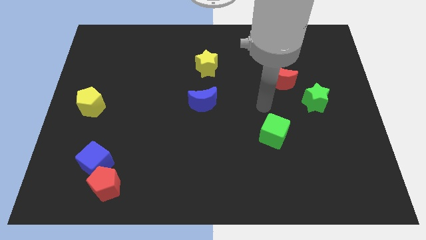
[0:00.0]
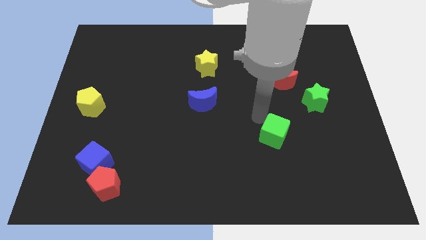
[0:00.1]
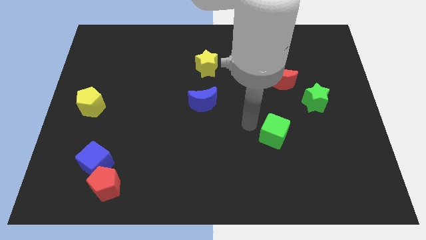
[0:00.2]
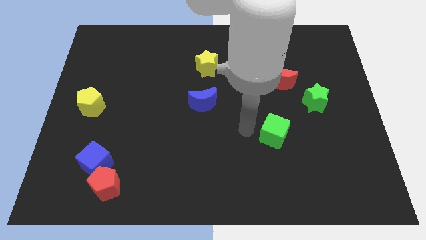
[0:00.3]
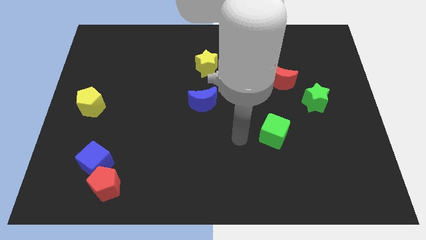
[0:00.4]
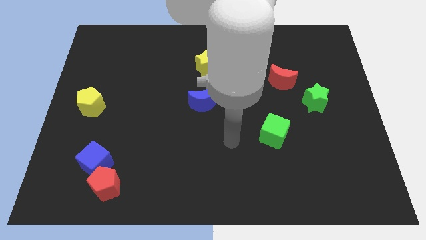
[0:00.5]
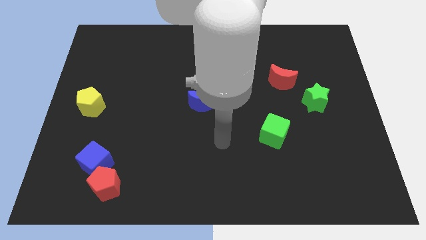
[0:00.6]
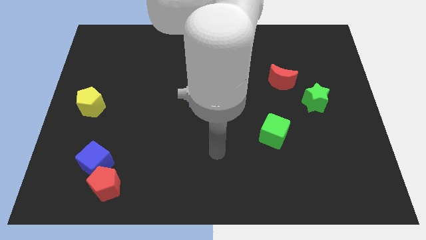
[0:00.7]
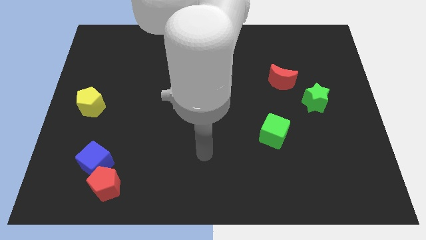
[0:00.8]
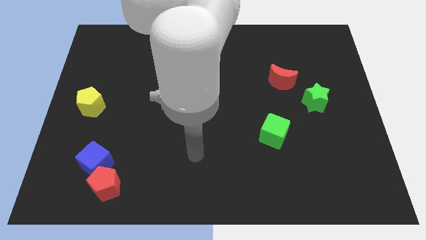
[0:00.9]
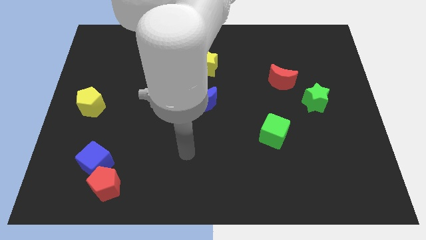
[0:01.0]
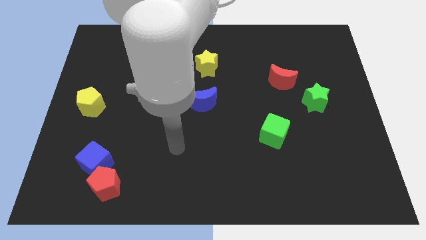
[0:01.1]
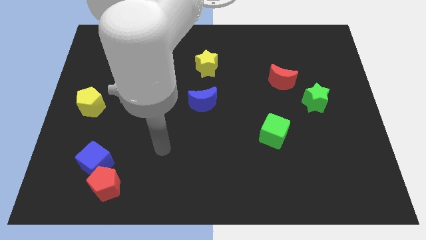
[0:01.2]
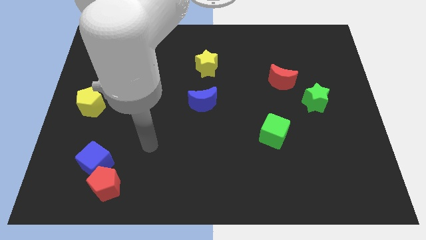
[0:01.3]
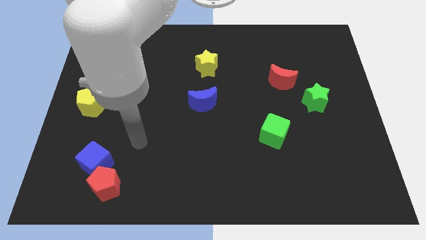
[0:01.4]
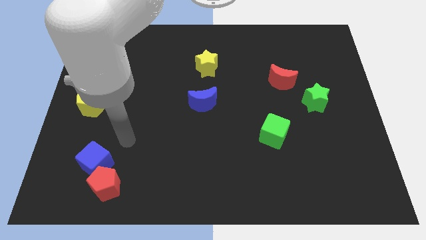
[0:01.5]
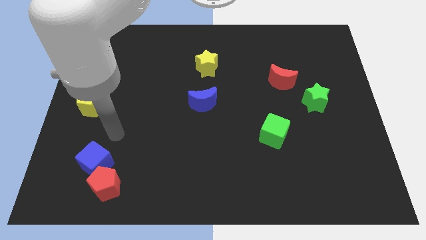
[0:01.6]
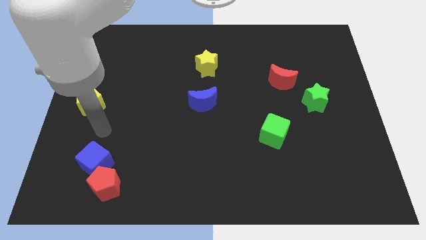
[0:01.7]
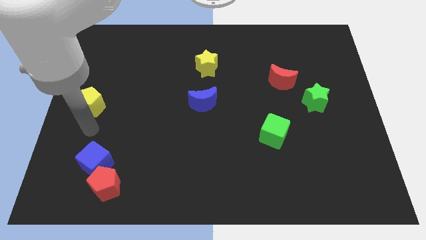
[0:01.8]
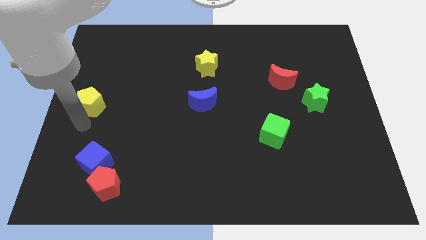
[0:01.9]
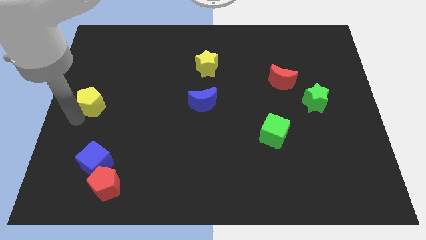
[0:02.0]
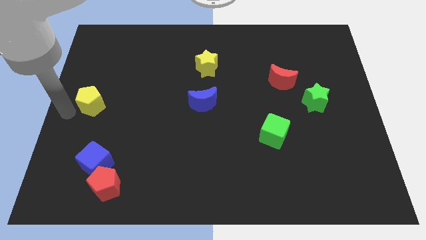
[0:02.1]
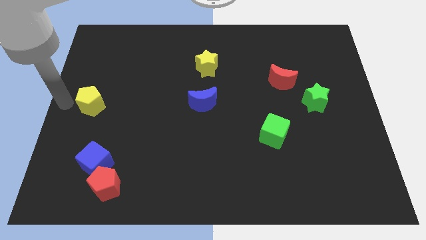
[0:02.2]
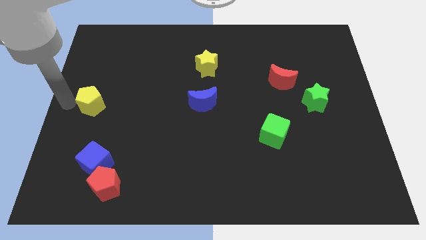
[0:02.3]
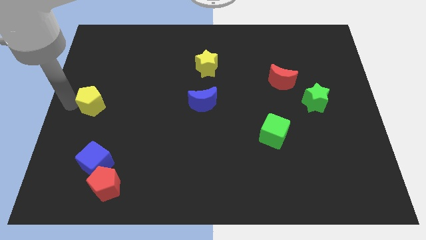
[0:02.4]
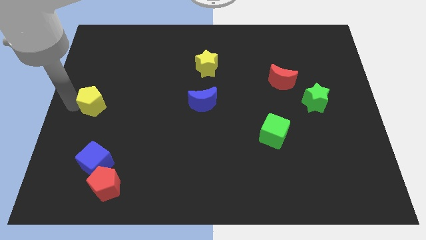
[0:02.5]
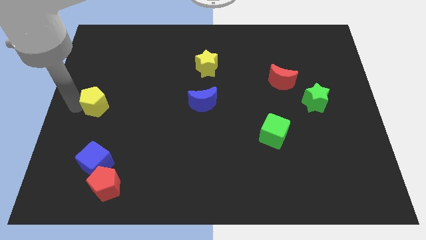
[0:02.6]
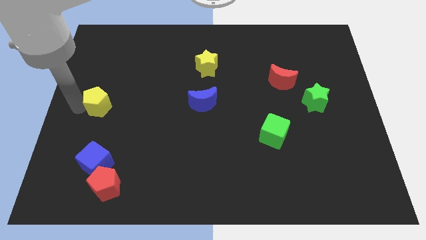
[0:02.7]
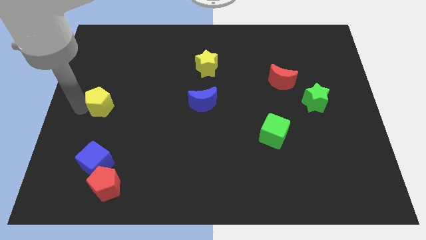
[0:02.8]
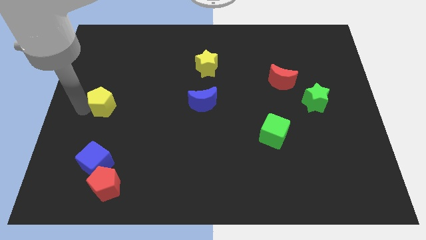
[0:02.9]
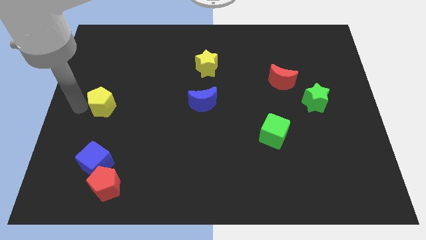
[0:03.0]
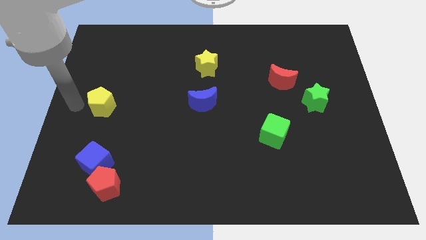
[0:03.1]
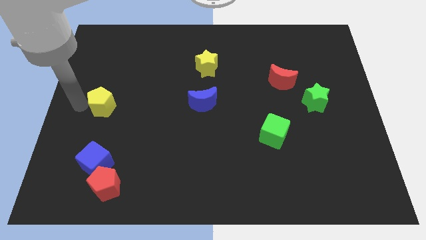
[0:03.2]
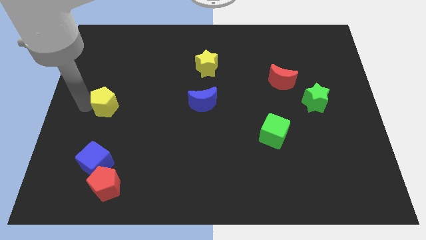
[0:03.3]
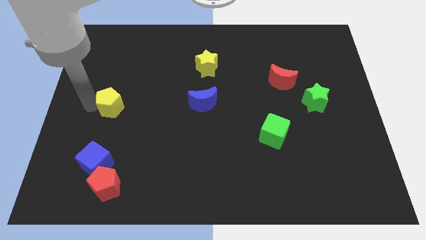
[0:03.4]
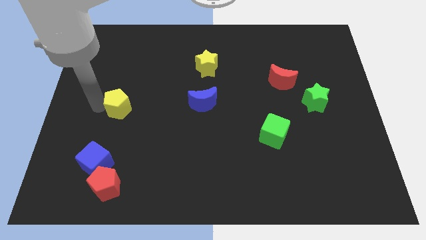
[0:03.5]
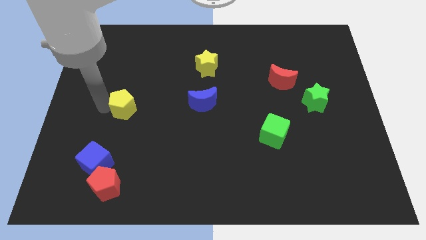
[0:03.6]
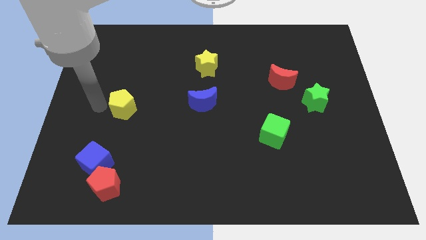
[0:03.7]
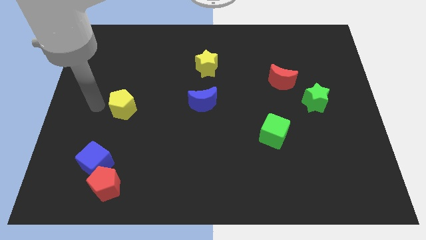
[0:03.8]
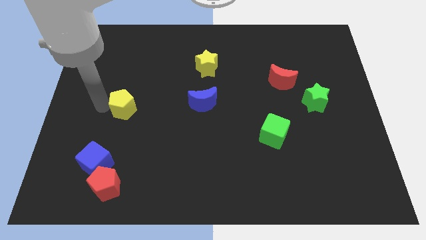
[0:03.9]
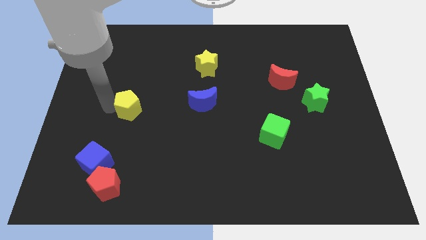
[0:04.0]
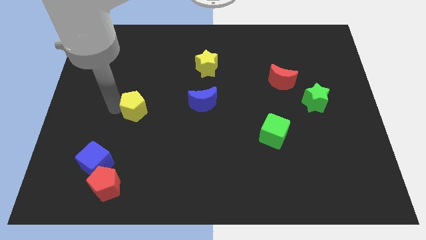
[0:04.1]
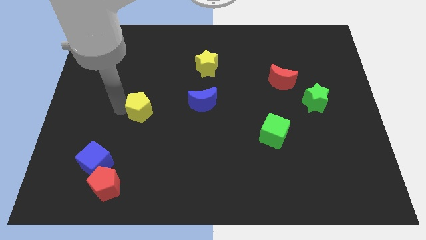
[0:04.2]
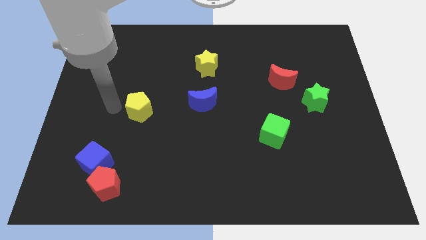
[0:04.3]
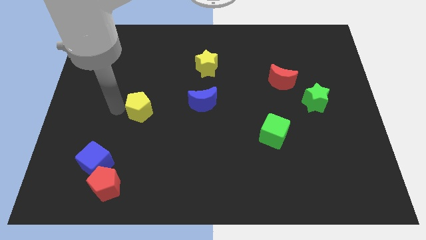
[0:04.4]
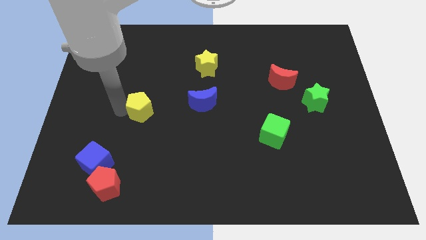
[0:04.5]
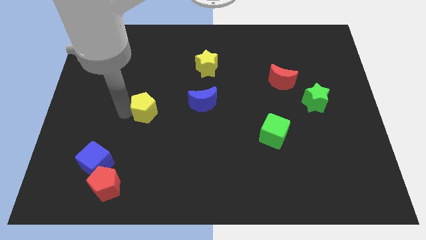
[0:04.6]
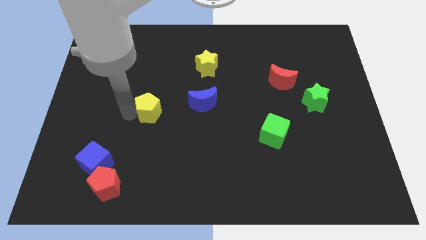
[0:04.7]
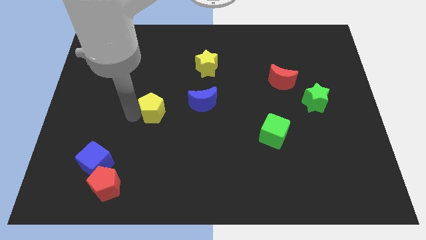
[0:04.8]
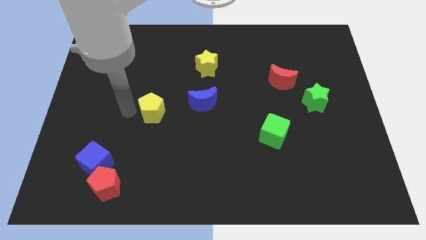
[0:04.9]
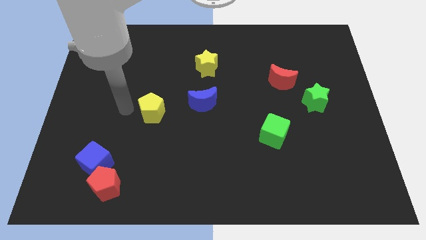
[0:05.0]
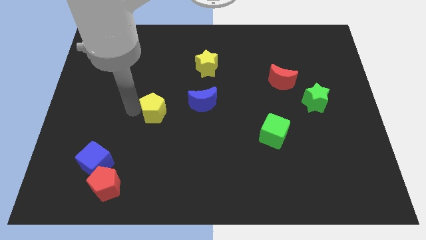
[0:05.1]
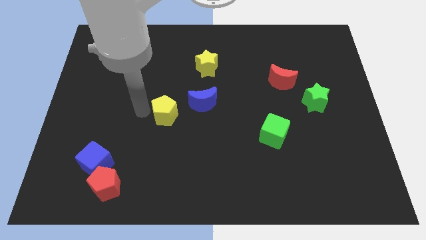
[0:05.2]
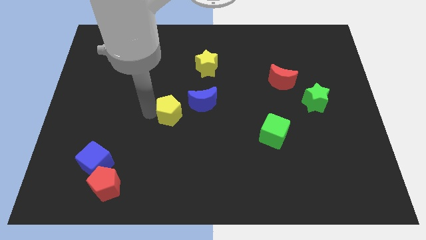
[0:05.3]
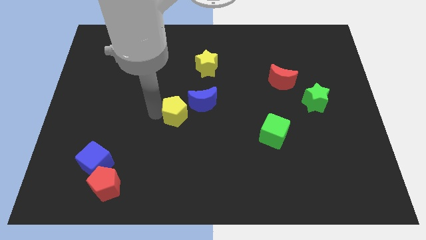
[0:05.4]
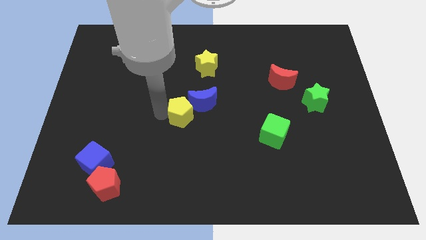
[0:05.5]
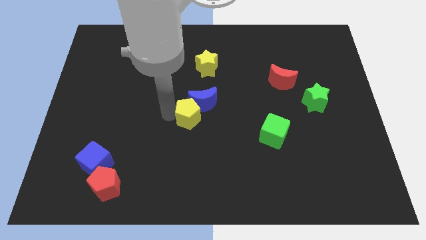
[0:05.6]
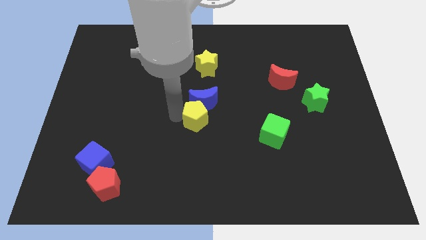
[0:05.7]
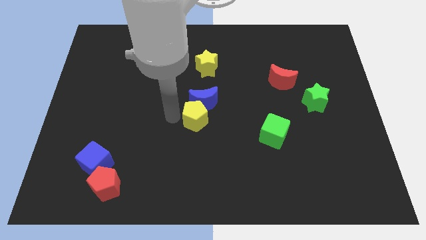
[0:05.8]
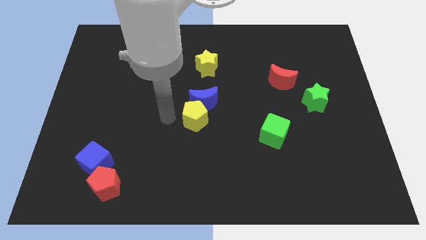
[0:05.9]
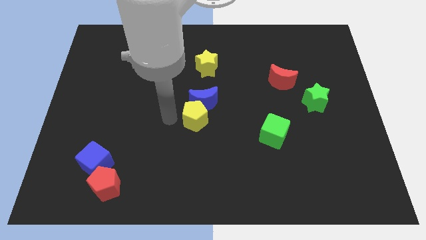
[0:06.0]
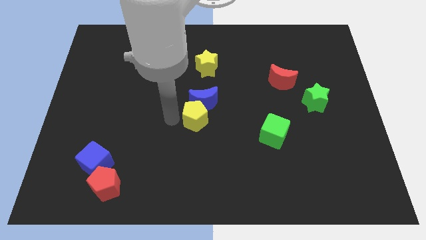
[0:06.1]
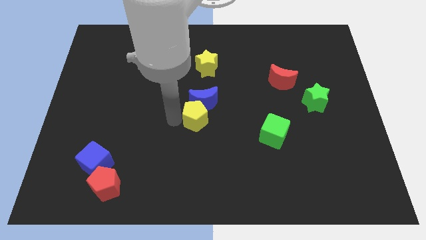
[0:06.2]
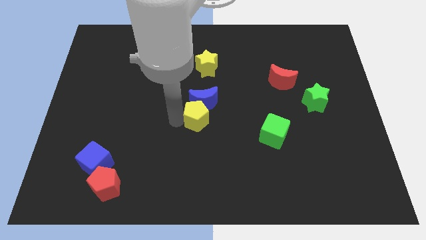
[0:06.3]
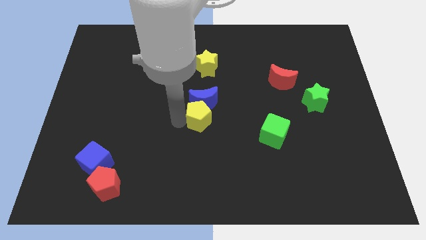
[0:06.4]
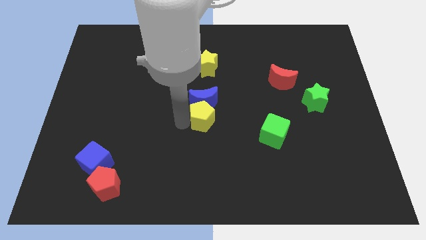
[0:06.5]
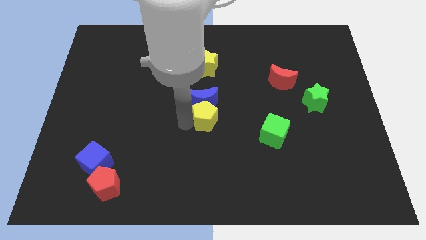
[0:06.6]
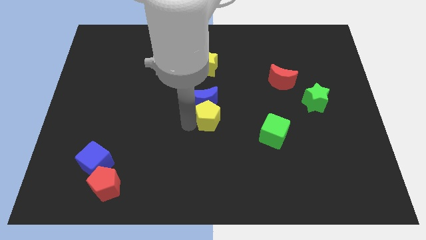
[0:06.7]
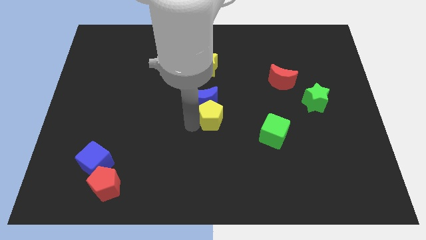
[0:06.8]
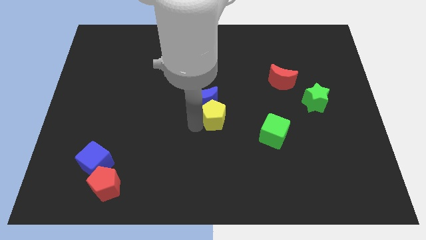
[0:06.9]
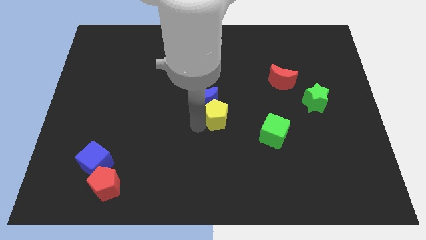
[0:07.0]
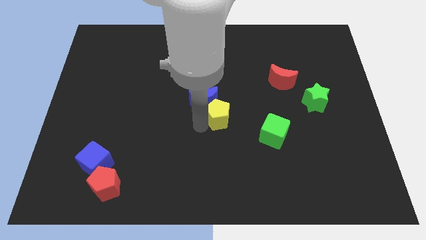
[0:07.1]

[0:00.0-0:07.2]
push the yellow pentagon to the right side of the blue moon
